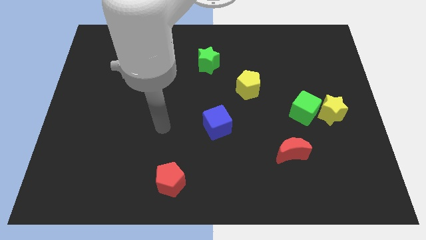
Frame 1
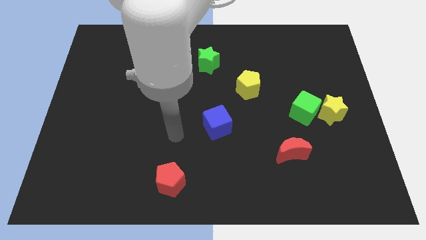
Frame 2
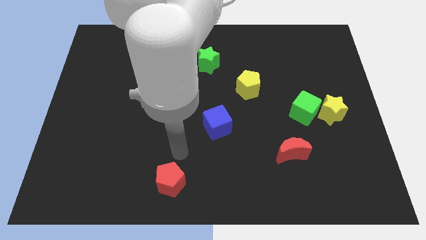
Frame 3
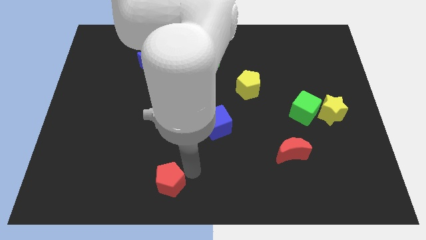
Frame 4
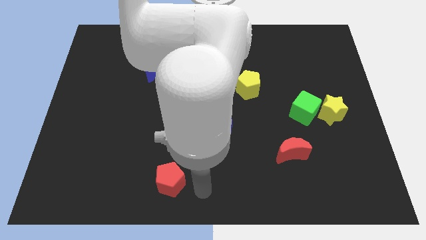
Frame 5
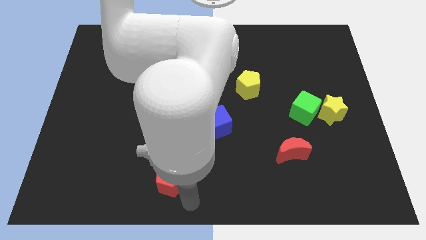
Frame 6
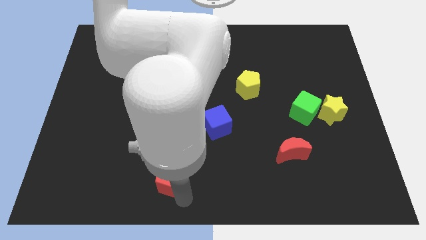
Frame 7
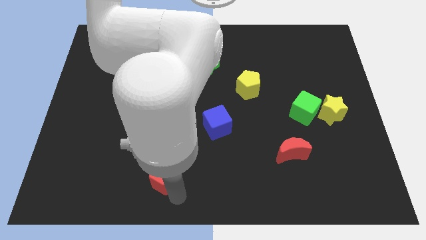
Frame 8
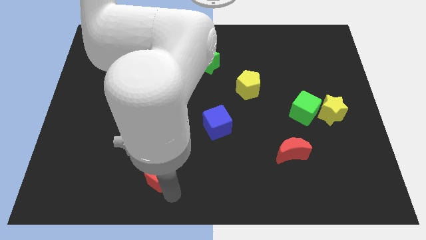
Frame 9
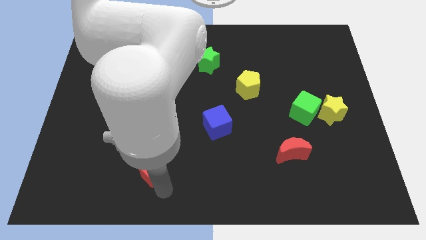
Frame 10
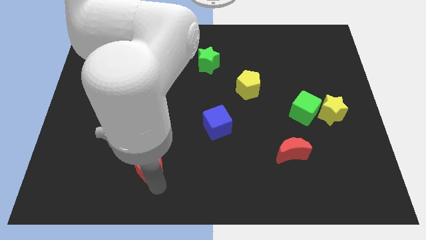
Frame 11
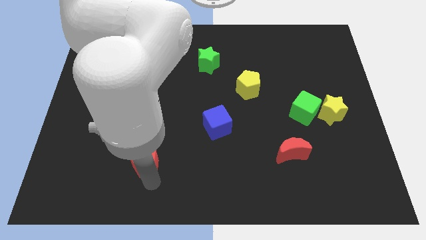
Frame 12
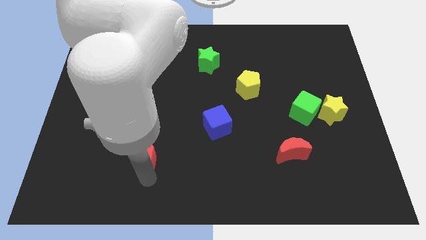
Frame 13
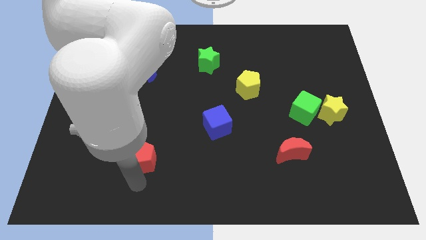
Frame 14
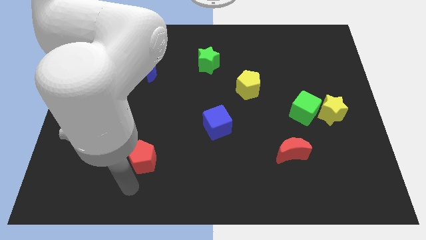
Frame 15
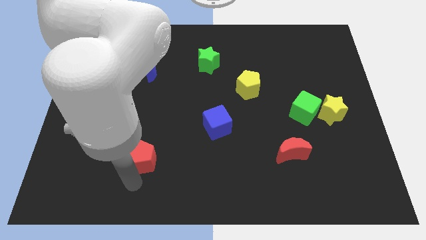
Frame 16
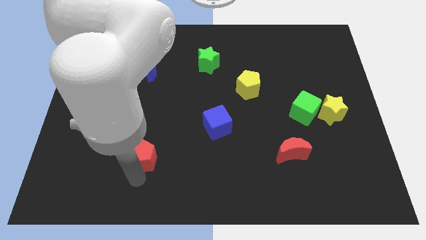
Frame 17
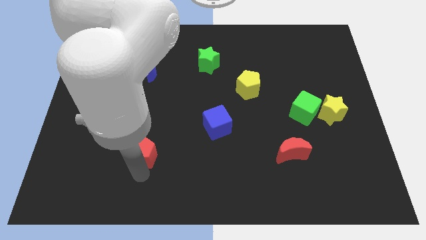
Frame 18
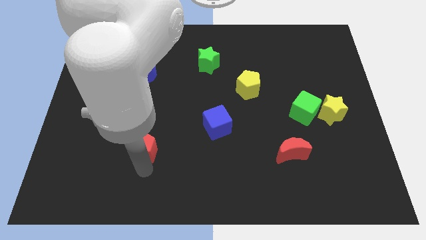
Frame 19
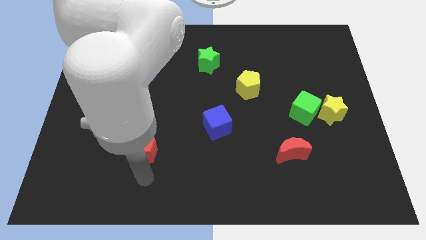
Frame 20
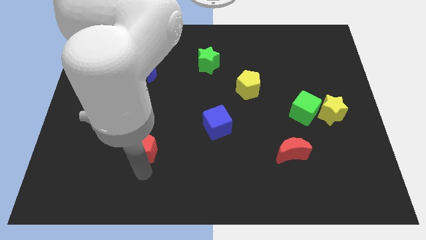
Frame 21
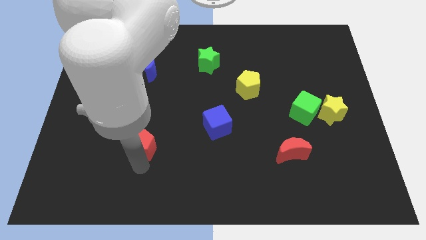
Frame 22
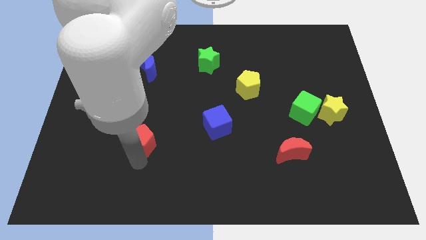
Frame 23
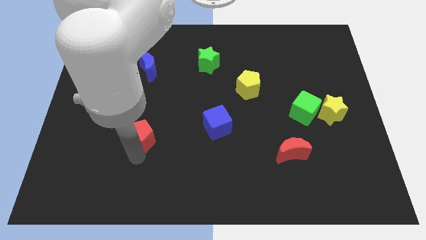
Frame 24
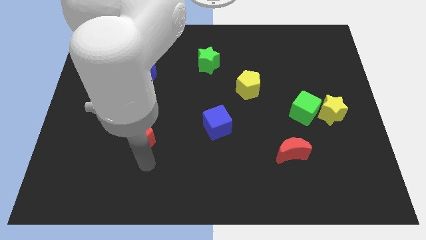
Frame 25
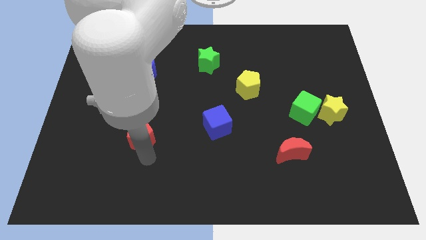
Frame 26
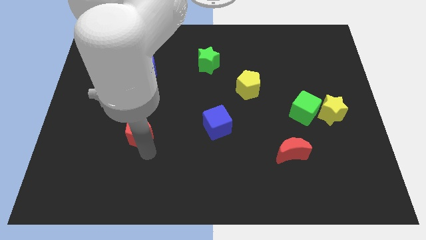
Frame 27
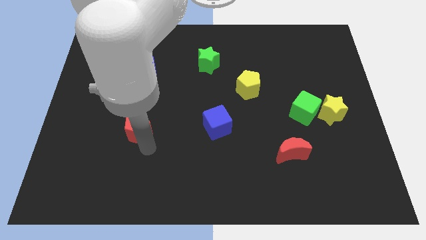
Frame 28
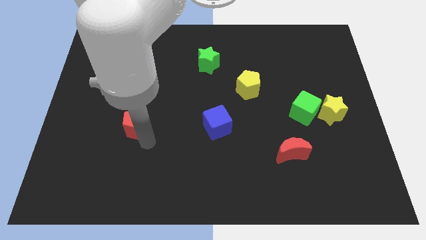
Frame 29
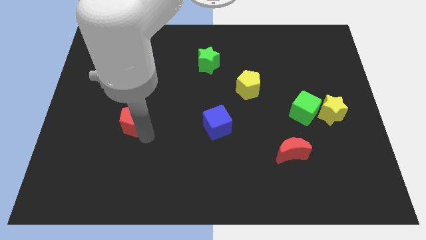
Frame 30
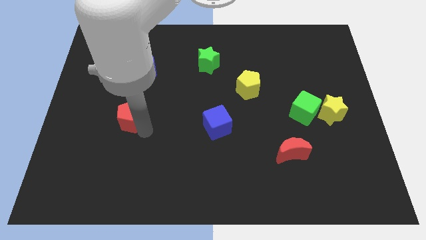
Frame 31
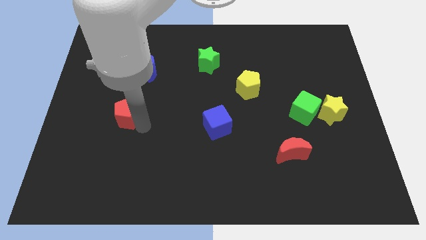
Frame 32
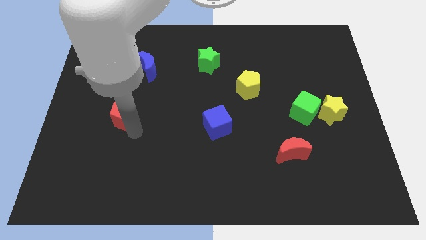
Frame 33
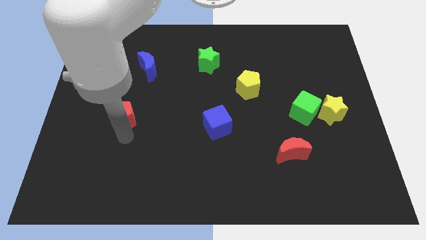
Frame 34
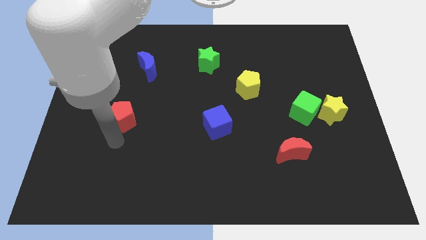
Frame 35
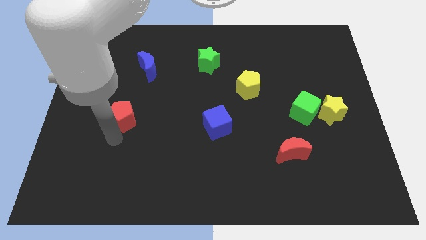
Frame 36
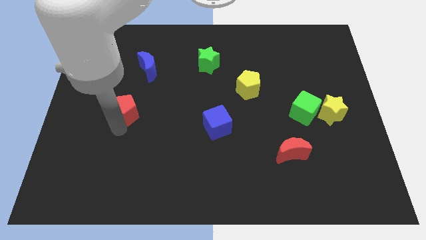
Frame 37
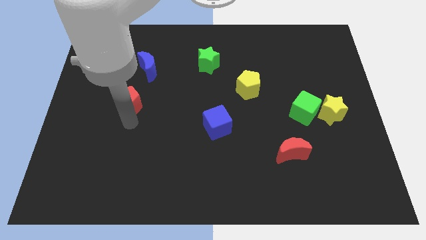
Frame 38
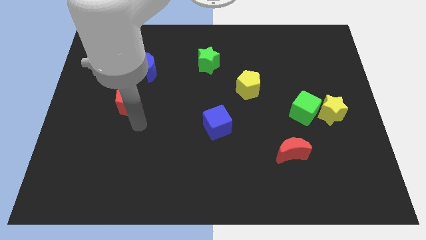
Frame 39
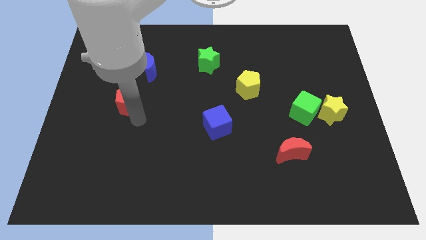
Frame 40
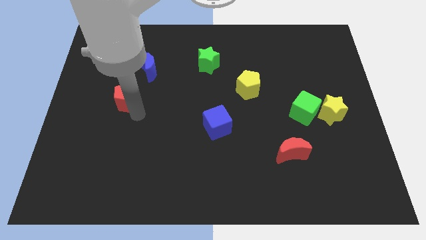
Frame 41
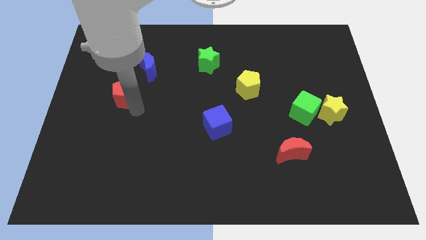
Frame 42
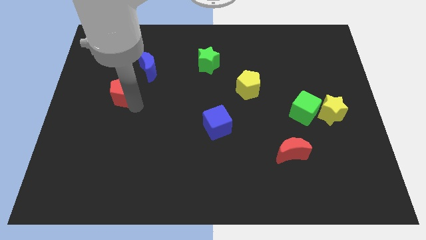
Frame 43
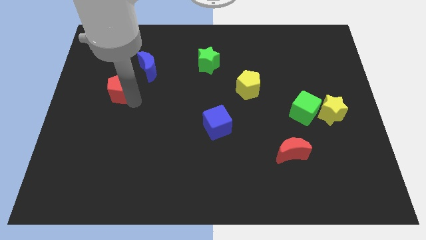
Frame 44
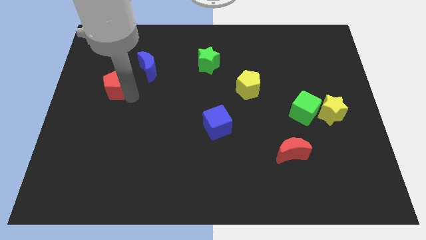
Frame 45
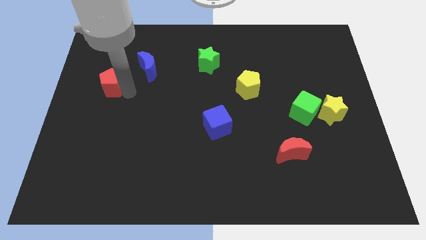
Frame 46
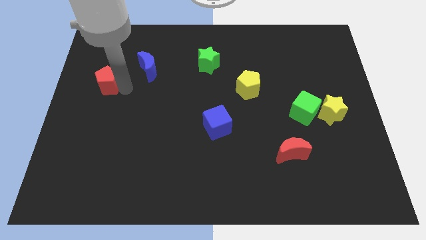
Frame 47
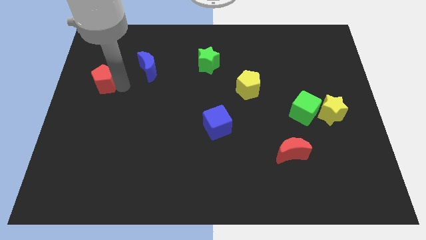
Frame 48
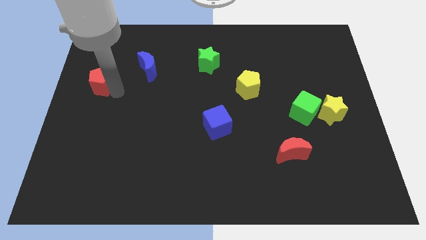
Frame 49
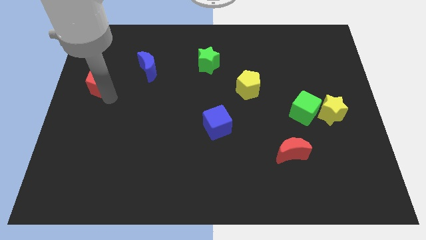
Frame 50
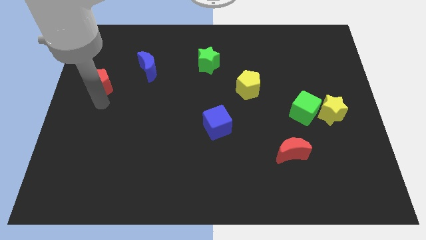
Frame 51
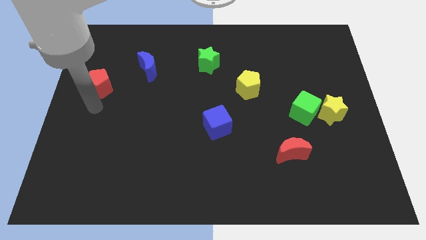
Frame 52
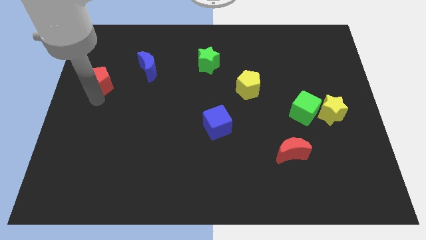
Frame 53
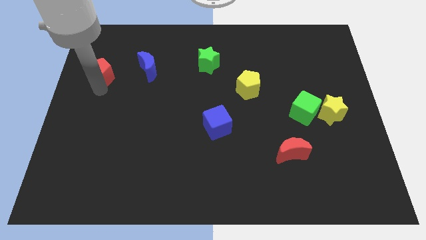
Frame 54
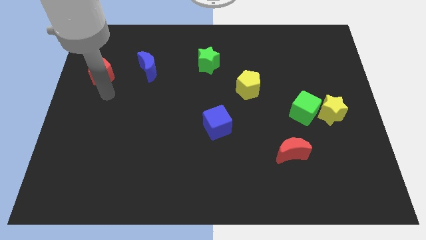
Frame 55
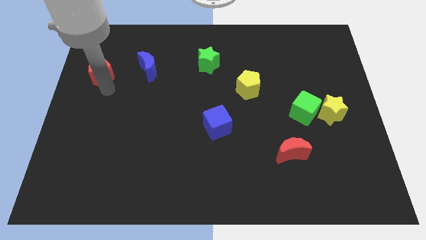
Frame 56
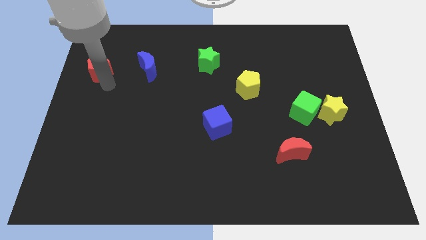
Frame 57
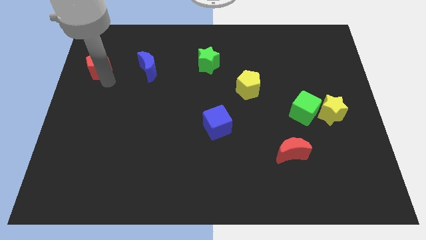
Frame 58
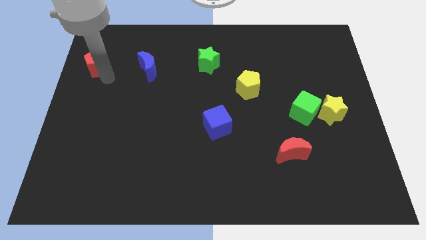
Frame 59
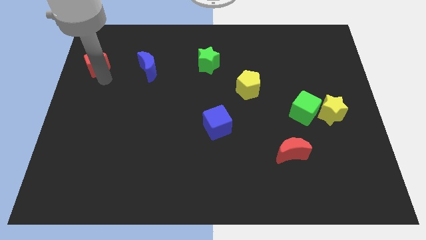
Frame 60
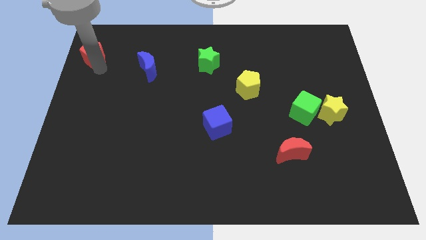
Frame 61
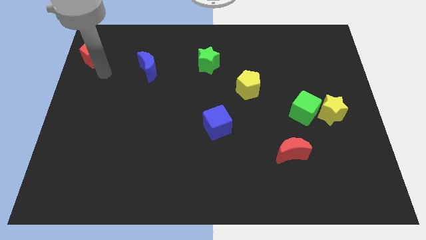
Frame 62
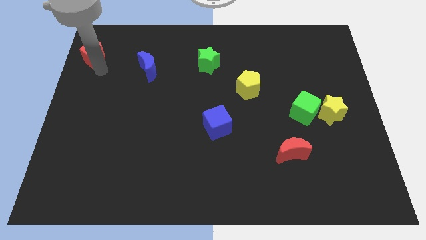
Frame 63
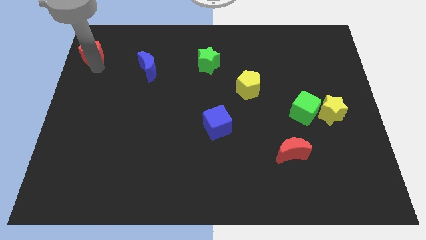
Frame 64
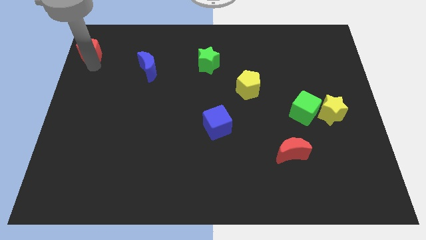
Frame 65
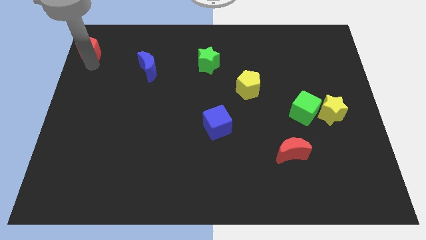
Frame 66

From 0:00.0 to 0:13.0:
put the red pentagon to the upper left corner

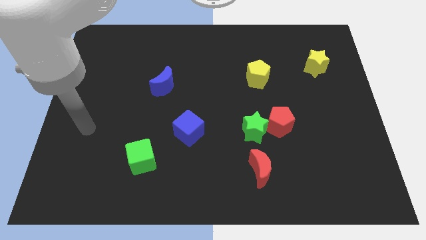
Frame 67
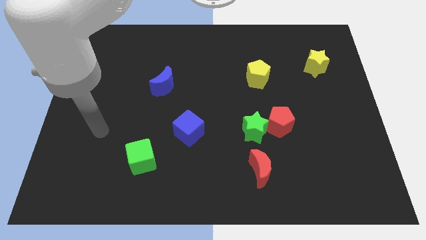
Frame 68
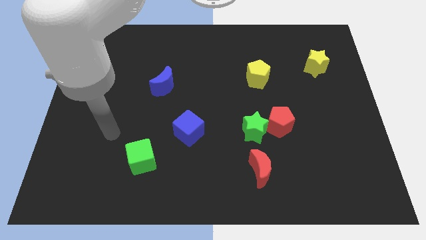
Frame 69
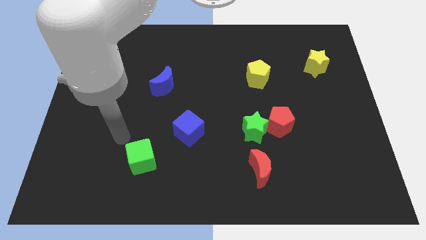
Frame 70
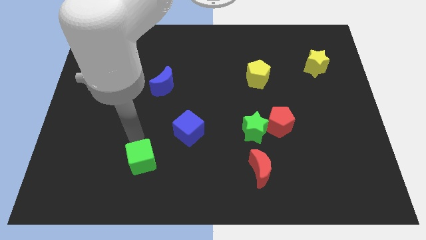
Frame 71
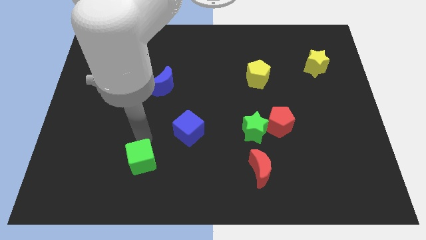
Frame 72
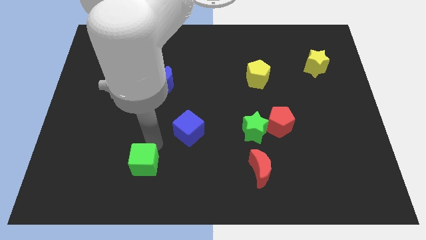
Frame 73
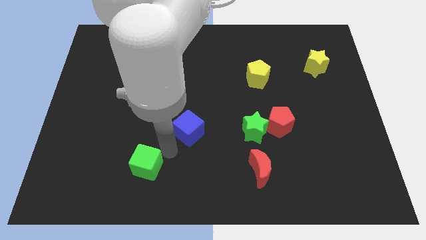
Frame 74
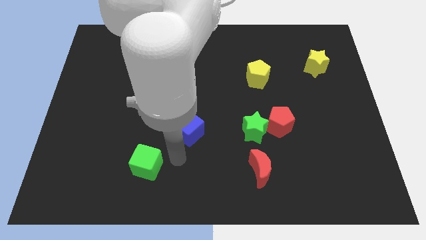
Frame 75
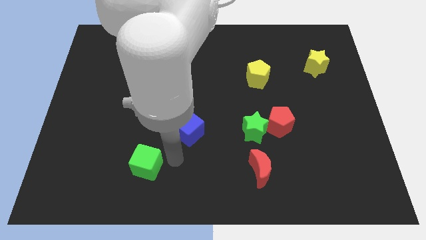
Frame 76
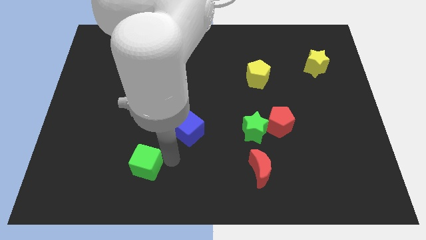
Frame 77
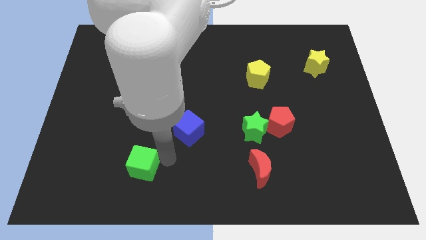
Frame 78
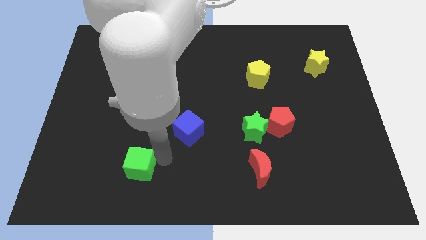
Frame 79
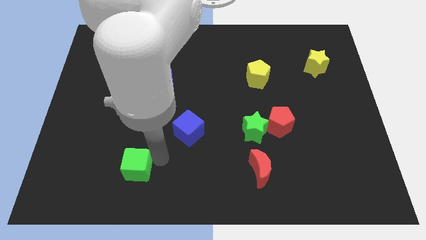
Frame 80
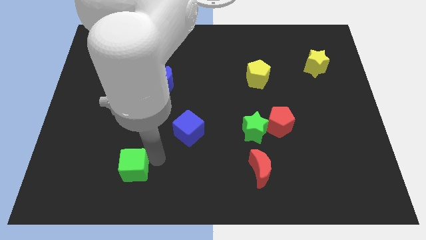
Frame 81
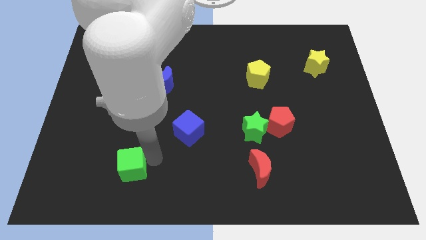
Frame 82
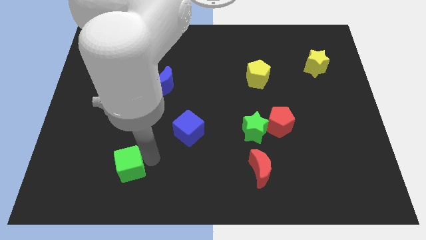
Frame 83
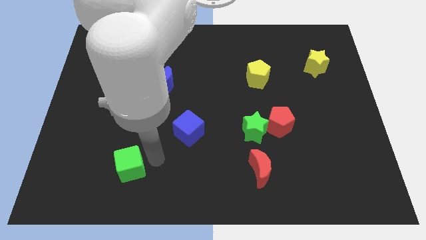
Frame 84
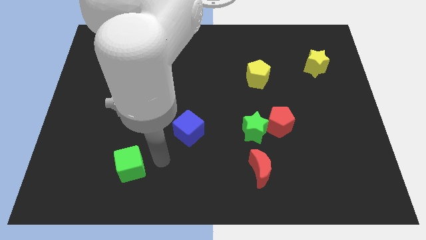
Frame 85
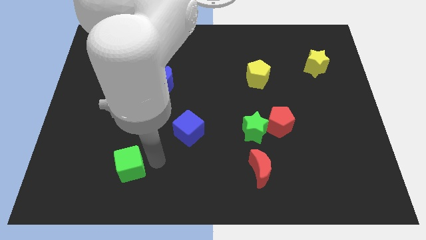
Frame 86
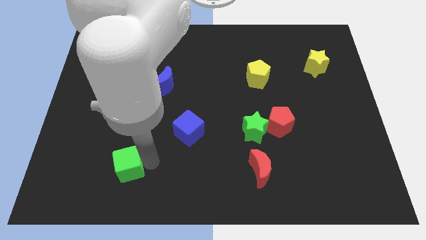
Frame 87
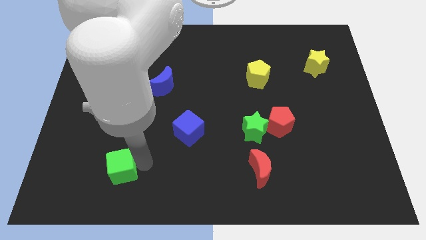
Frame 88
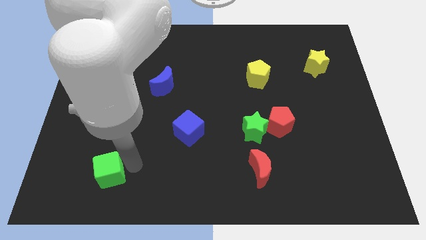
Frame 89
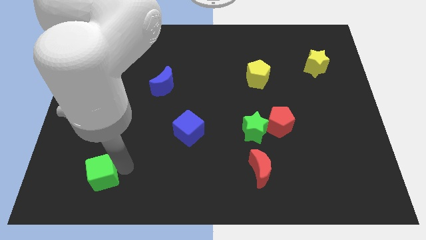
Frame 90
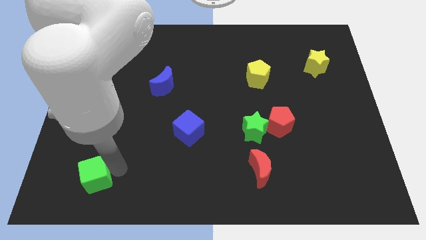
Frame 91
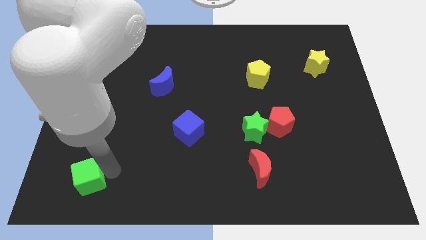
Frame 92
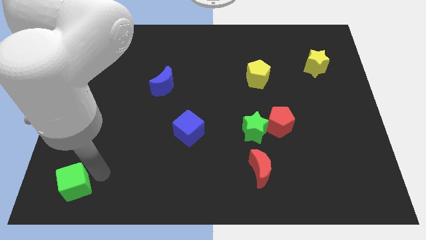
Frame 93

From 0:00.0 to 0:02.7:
move the green cube to the bottom left corner
